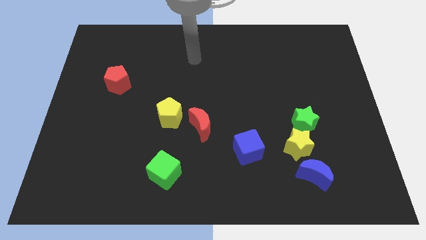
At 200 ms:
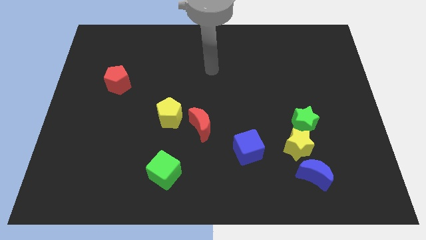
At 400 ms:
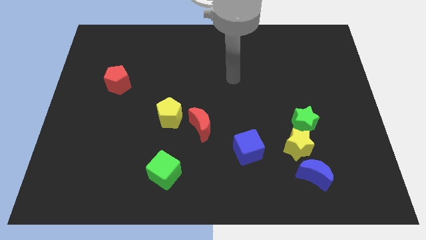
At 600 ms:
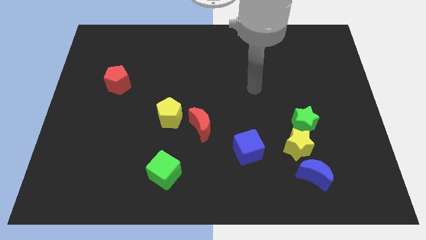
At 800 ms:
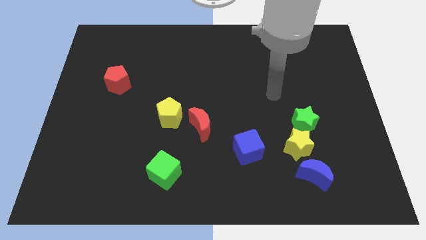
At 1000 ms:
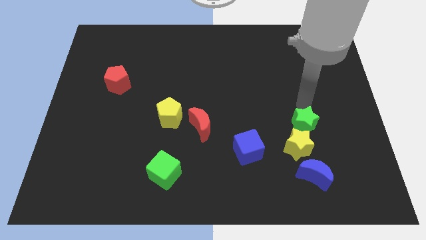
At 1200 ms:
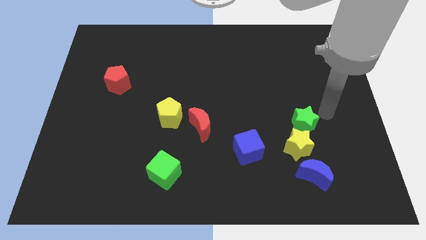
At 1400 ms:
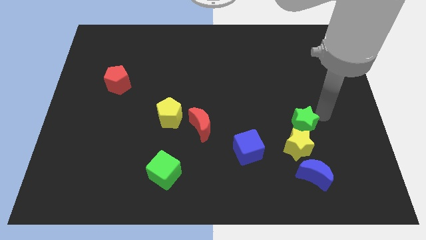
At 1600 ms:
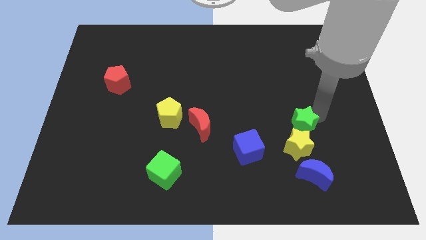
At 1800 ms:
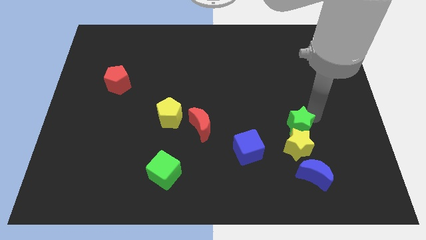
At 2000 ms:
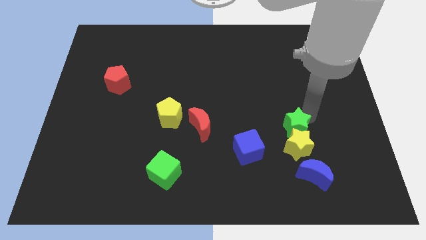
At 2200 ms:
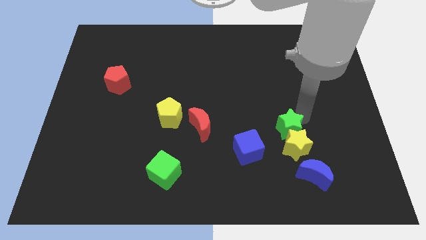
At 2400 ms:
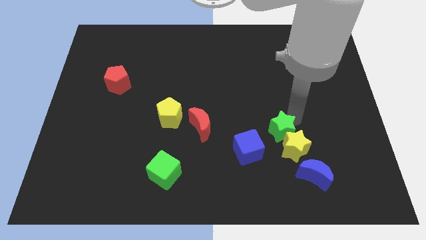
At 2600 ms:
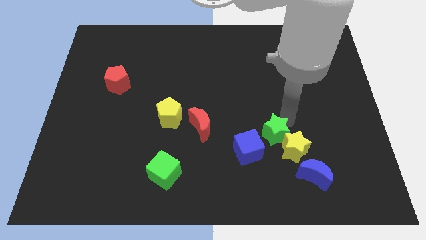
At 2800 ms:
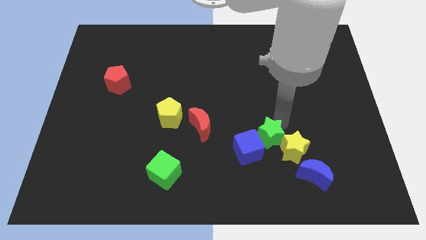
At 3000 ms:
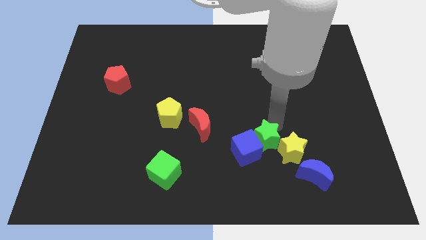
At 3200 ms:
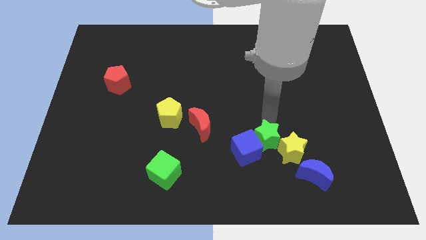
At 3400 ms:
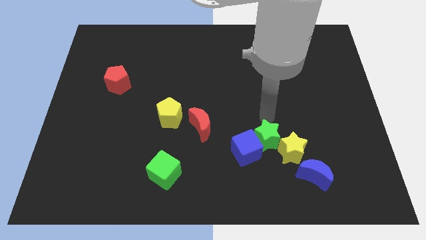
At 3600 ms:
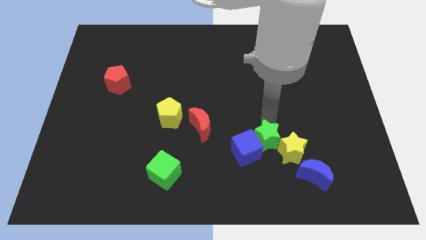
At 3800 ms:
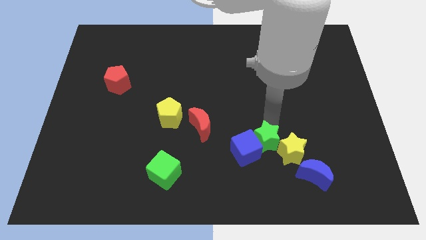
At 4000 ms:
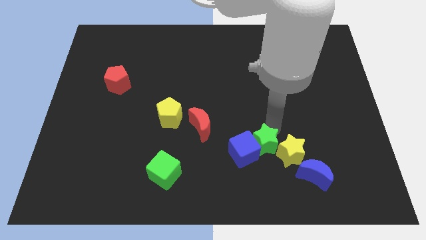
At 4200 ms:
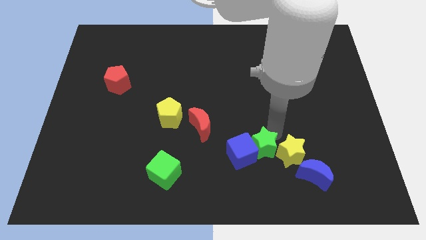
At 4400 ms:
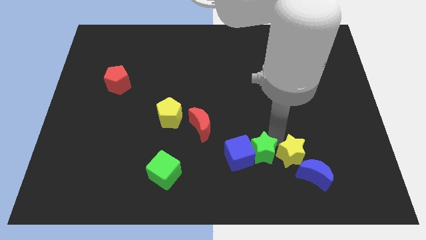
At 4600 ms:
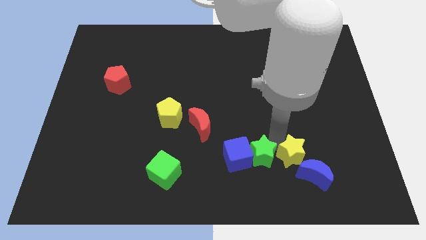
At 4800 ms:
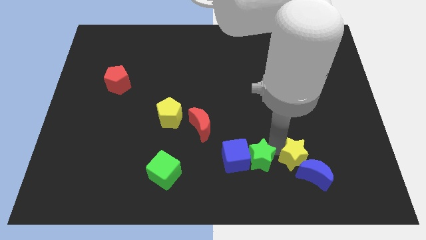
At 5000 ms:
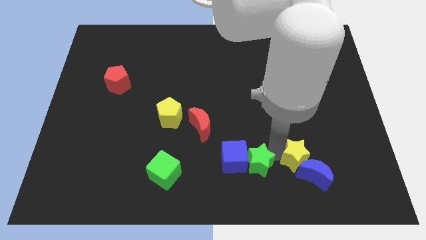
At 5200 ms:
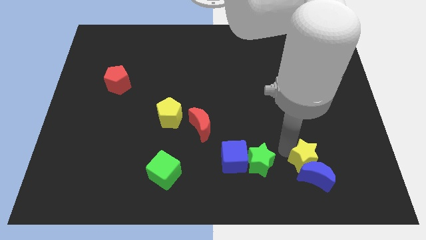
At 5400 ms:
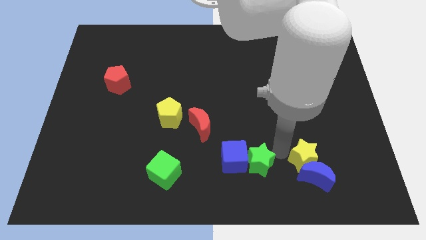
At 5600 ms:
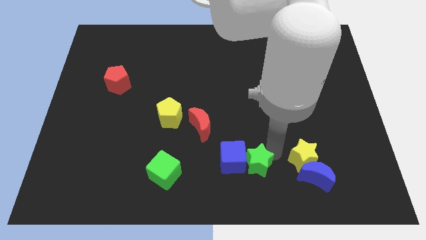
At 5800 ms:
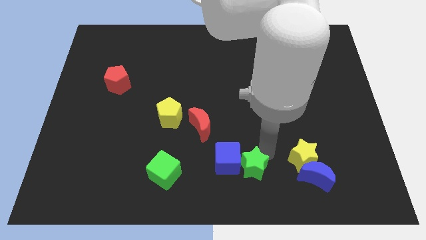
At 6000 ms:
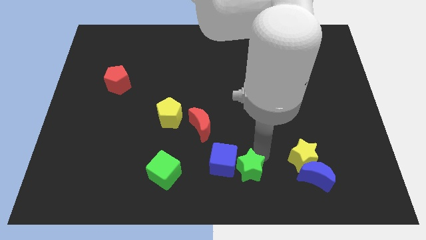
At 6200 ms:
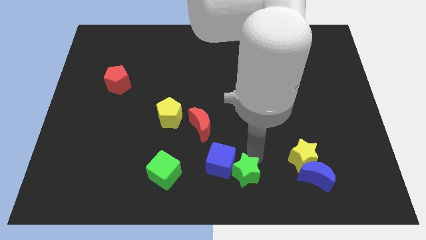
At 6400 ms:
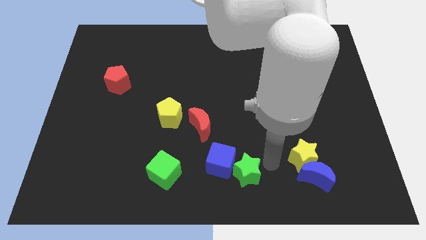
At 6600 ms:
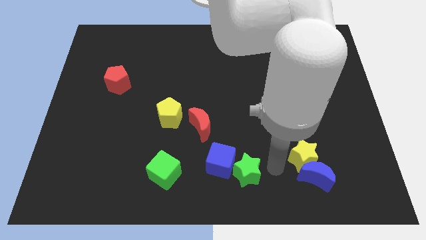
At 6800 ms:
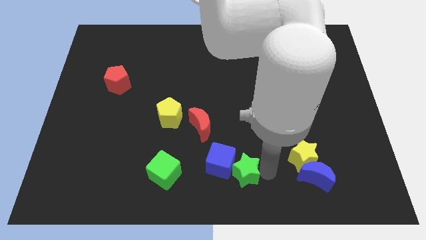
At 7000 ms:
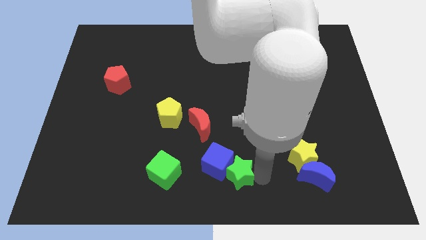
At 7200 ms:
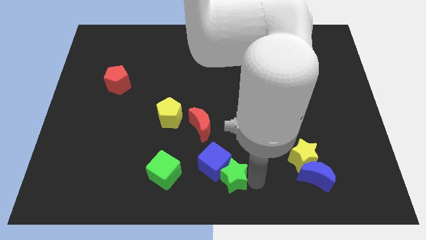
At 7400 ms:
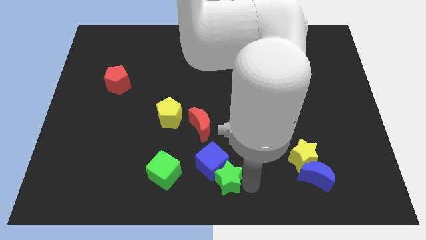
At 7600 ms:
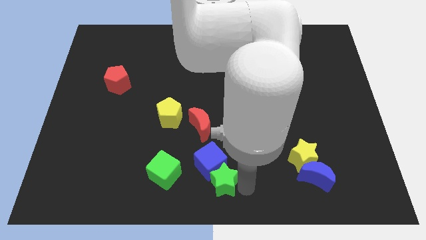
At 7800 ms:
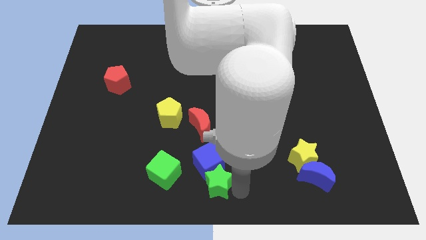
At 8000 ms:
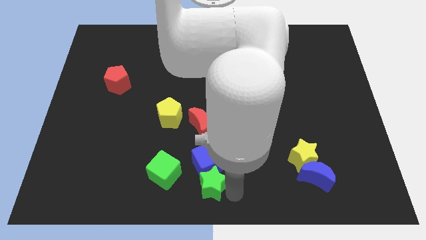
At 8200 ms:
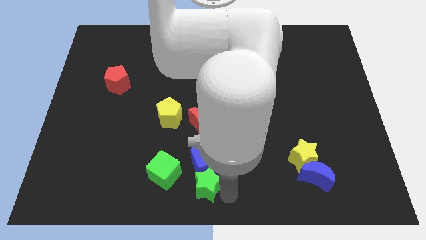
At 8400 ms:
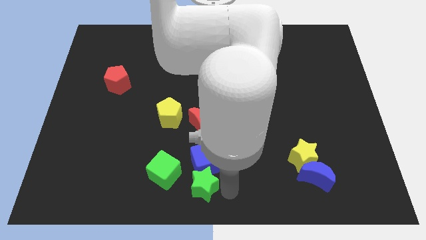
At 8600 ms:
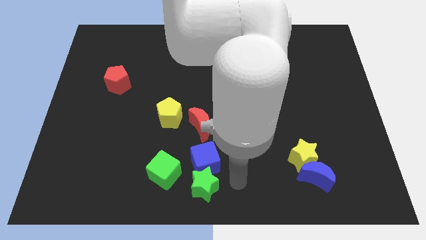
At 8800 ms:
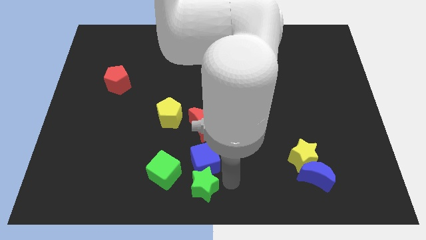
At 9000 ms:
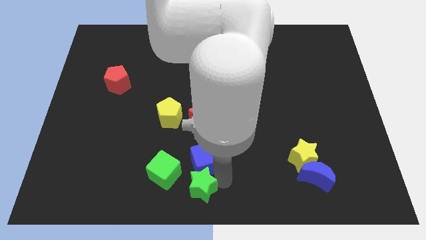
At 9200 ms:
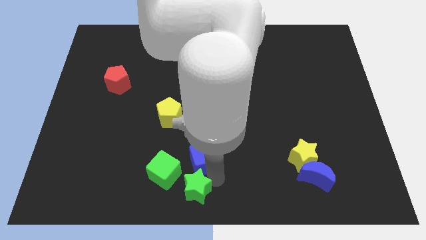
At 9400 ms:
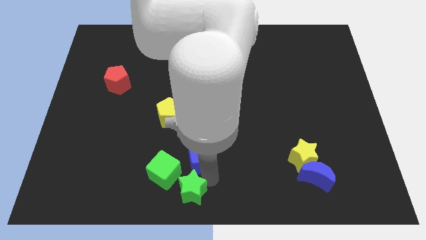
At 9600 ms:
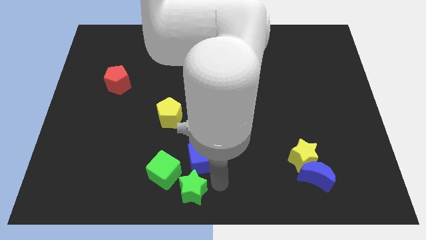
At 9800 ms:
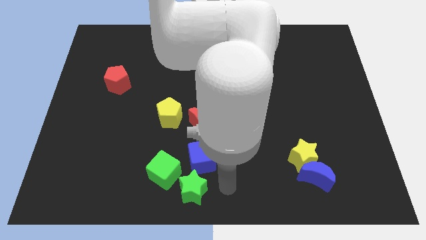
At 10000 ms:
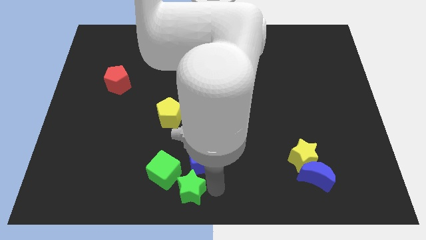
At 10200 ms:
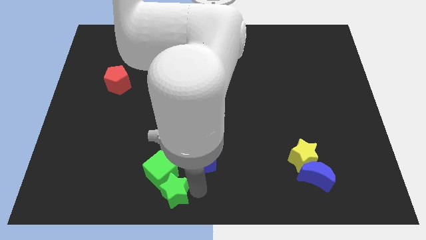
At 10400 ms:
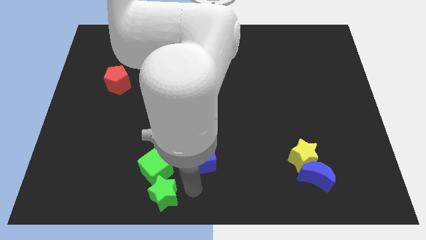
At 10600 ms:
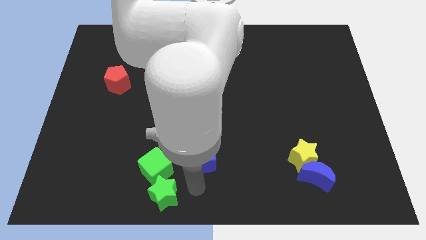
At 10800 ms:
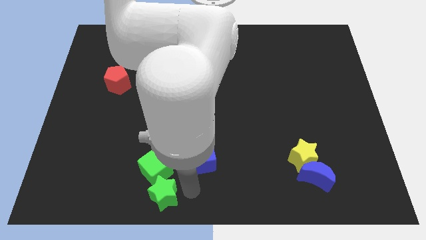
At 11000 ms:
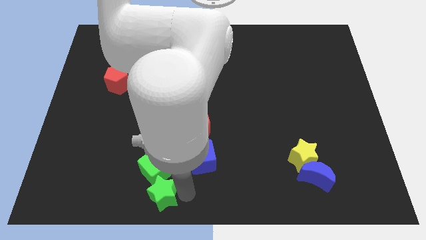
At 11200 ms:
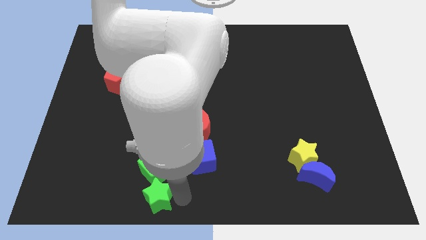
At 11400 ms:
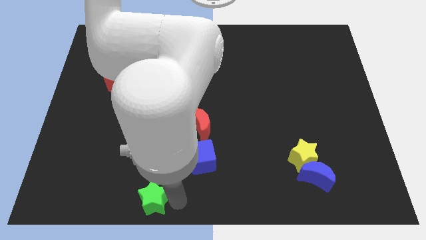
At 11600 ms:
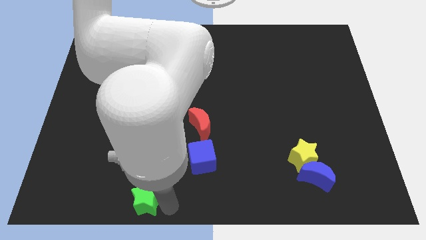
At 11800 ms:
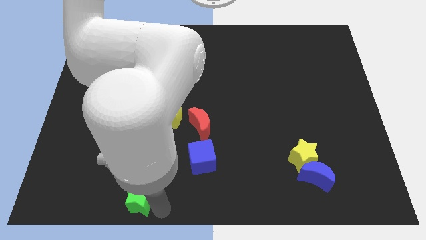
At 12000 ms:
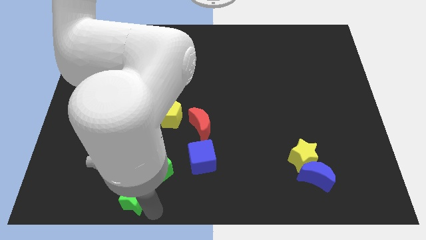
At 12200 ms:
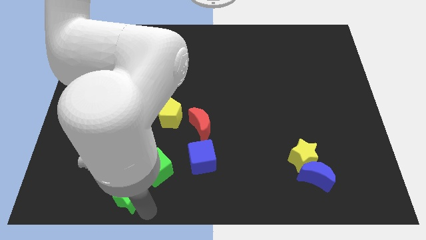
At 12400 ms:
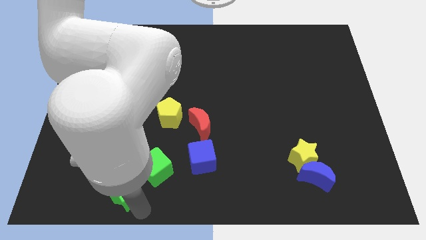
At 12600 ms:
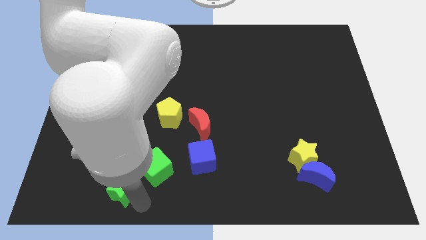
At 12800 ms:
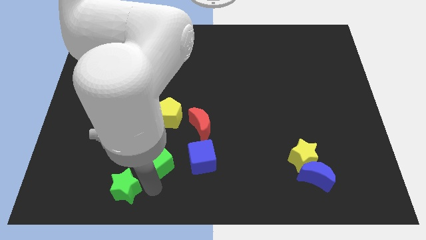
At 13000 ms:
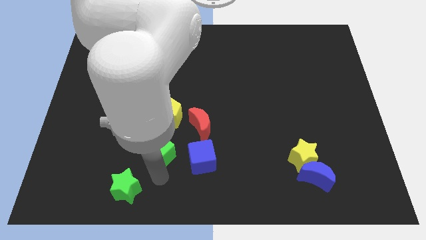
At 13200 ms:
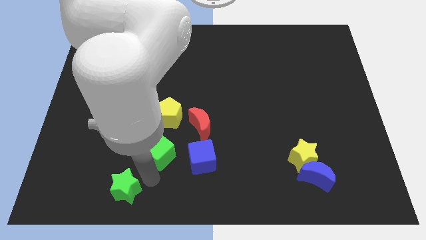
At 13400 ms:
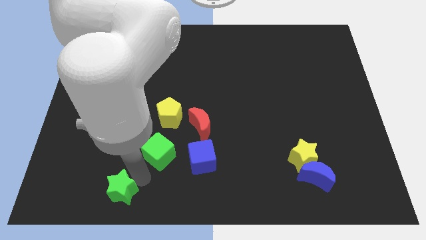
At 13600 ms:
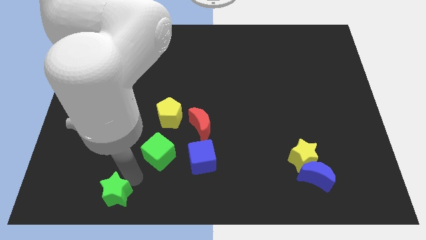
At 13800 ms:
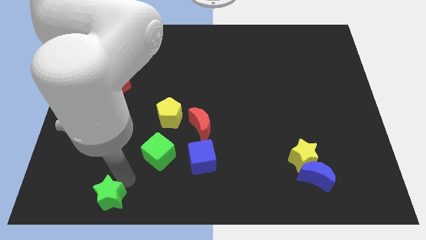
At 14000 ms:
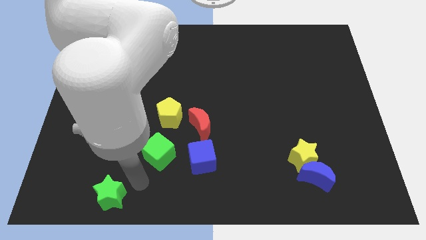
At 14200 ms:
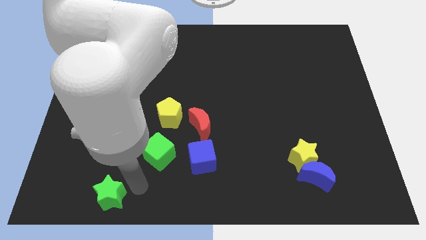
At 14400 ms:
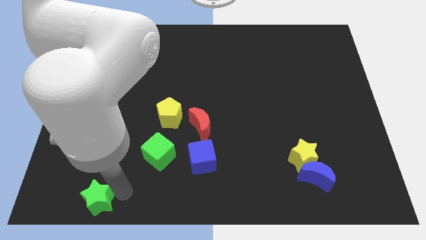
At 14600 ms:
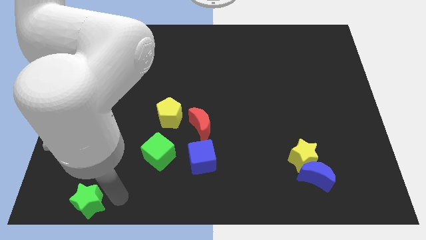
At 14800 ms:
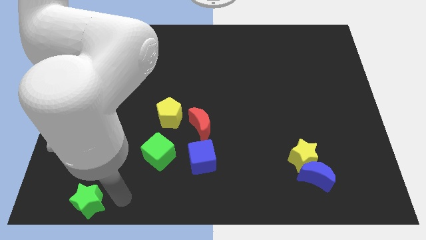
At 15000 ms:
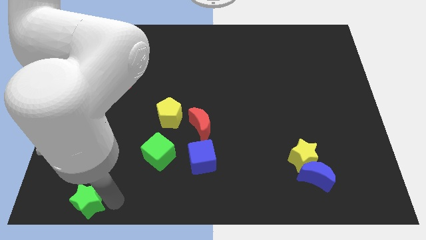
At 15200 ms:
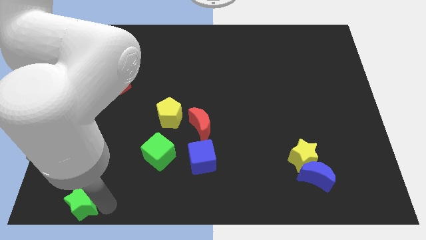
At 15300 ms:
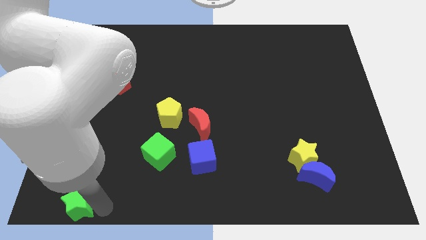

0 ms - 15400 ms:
put the green star to the lower left corner
